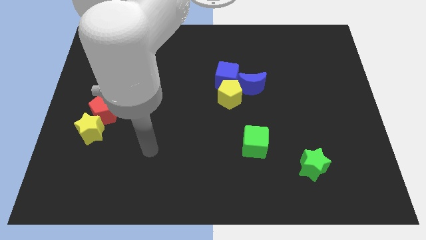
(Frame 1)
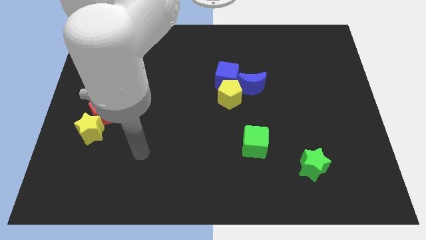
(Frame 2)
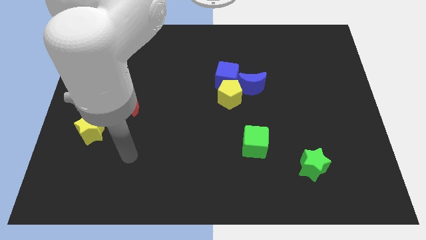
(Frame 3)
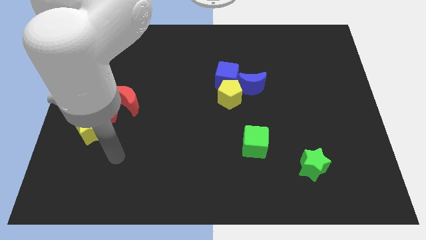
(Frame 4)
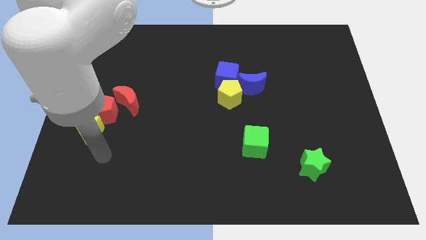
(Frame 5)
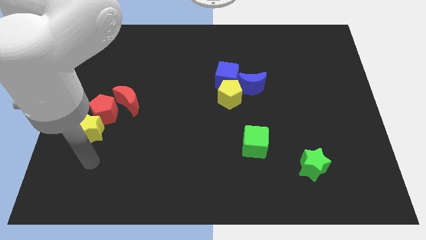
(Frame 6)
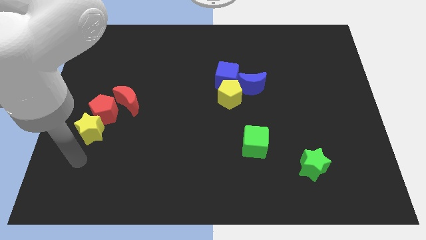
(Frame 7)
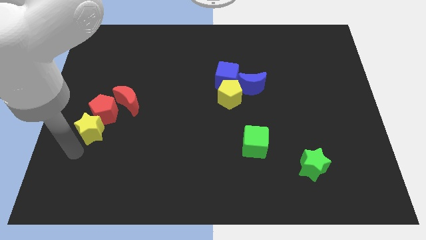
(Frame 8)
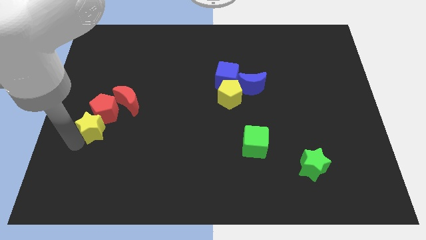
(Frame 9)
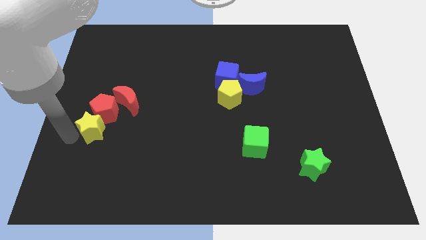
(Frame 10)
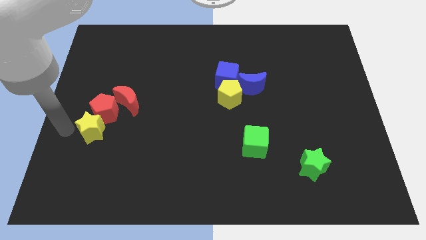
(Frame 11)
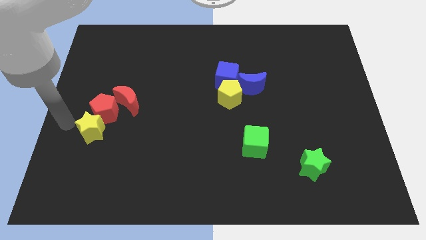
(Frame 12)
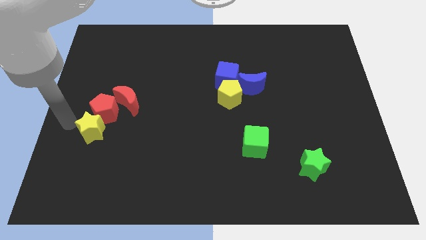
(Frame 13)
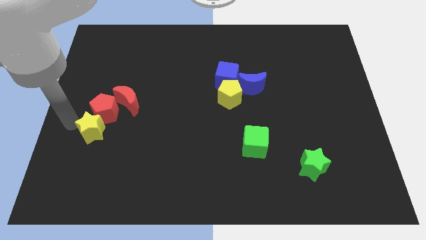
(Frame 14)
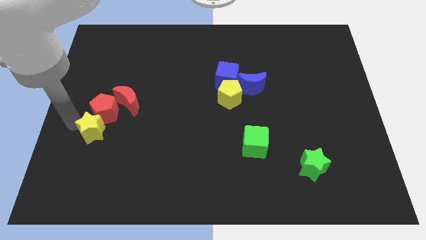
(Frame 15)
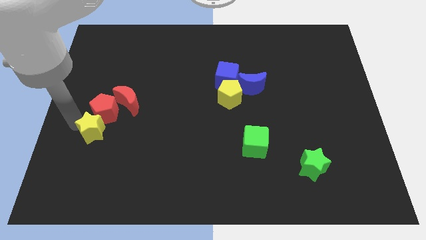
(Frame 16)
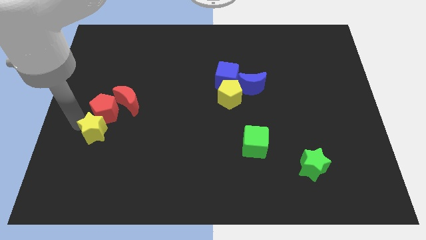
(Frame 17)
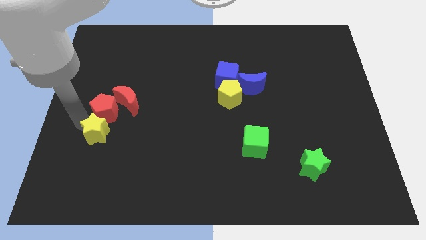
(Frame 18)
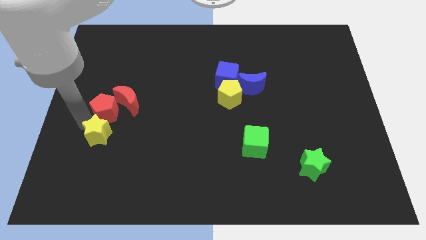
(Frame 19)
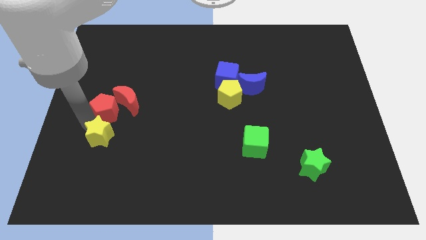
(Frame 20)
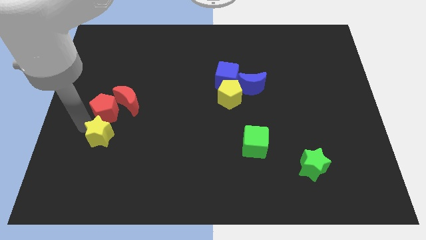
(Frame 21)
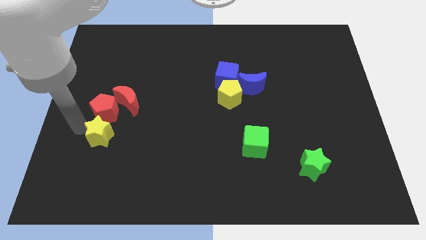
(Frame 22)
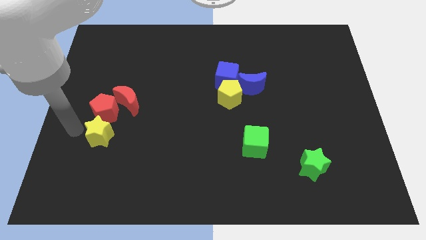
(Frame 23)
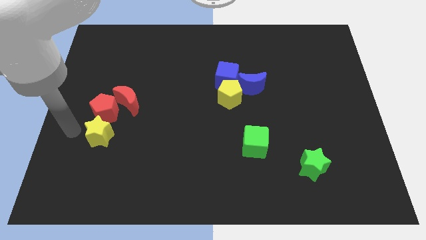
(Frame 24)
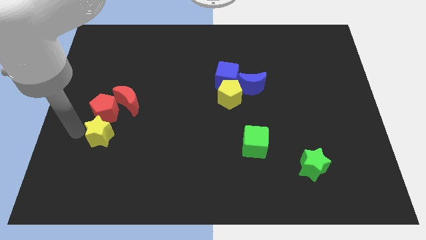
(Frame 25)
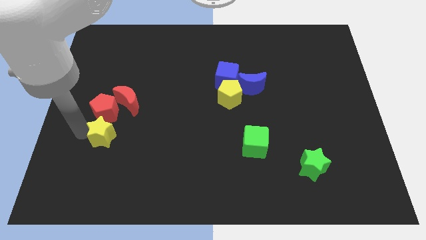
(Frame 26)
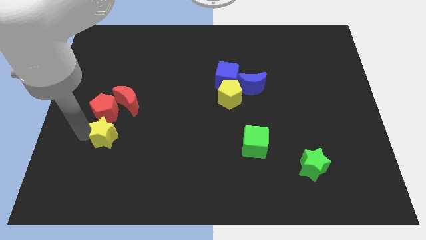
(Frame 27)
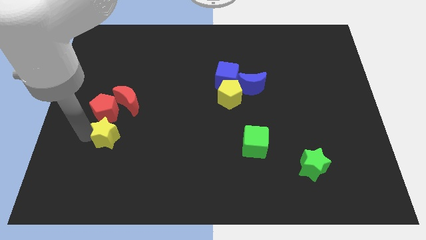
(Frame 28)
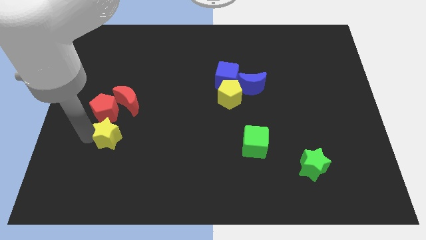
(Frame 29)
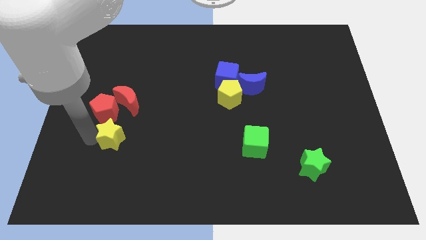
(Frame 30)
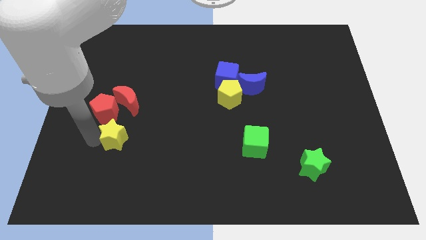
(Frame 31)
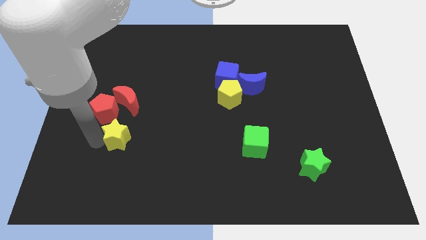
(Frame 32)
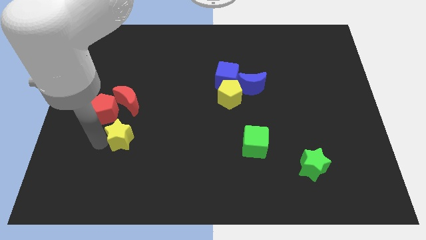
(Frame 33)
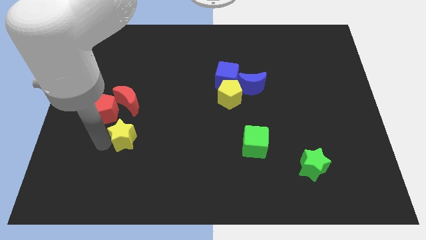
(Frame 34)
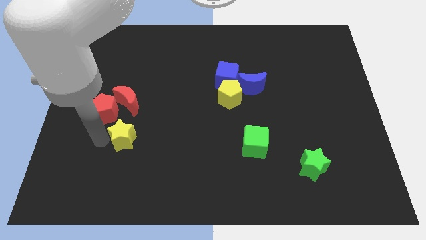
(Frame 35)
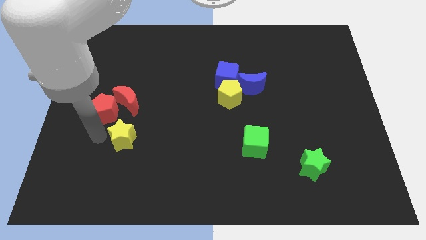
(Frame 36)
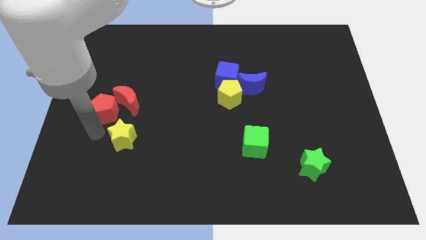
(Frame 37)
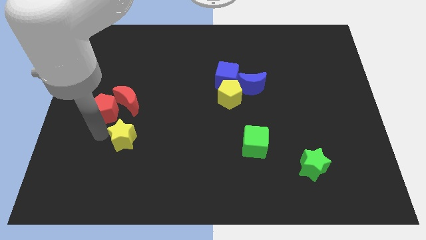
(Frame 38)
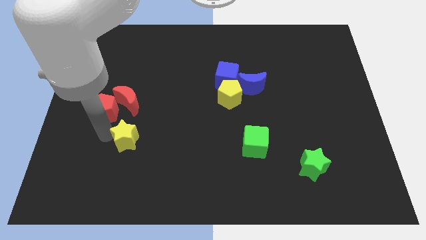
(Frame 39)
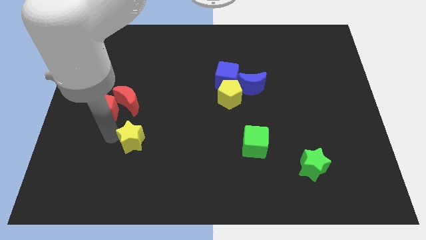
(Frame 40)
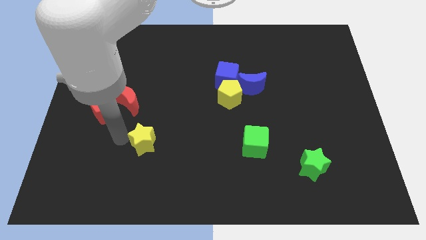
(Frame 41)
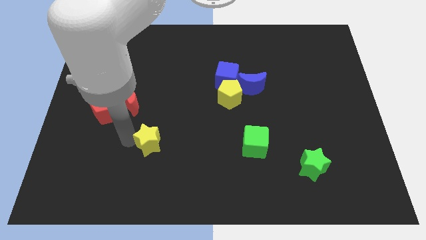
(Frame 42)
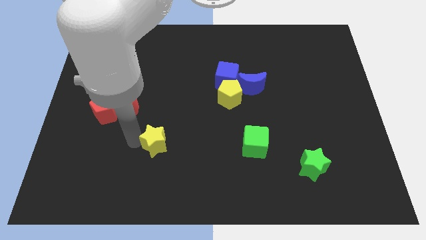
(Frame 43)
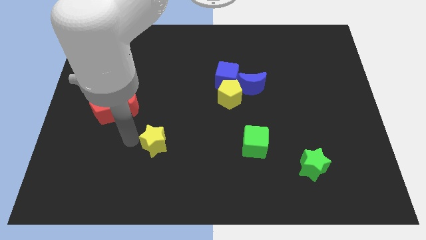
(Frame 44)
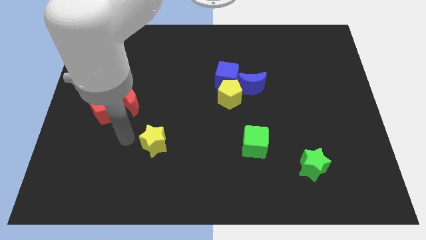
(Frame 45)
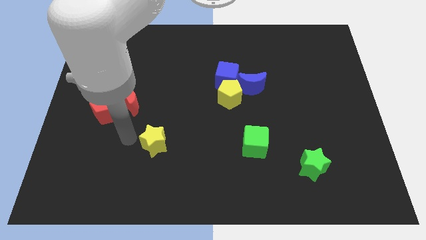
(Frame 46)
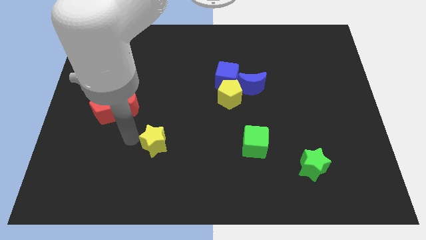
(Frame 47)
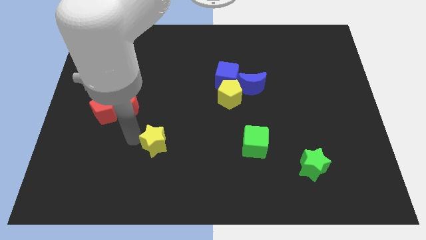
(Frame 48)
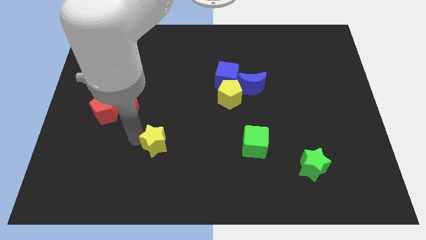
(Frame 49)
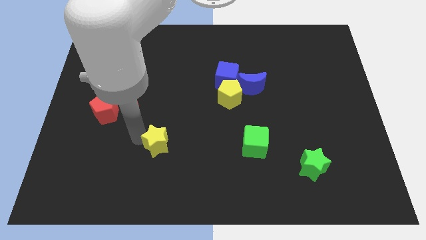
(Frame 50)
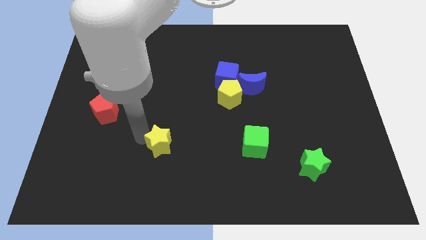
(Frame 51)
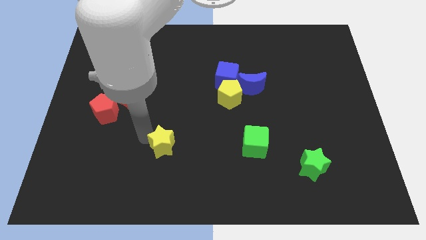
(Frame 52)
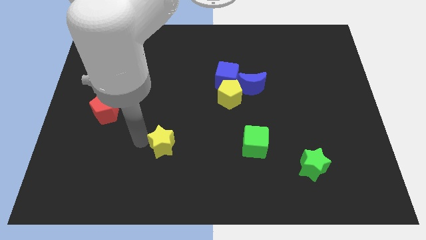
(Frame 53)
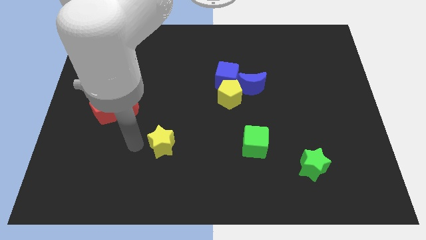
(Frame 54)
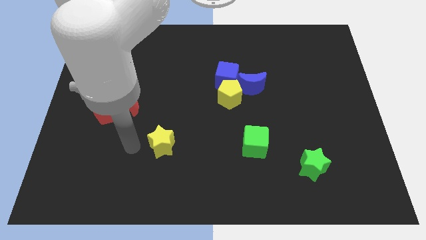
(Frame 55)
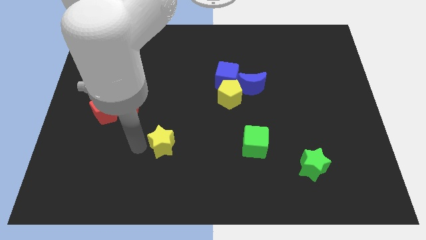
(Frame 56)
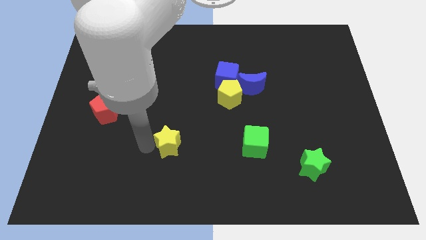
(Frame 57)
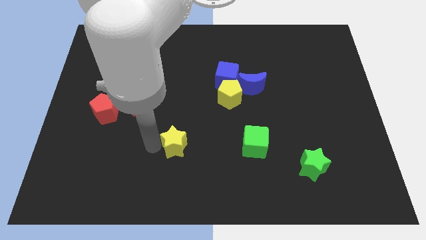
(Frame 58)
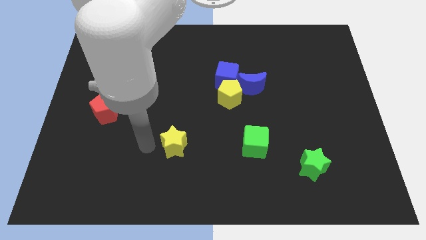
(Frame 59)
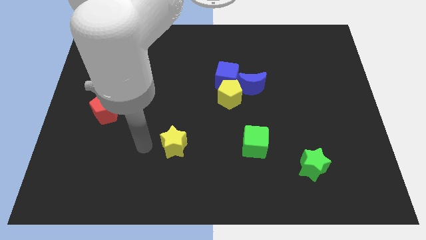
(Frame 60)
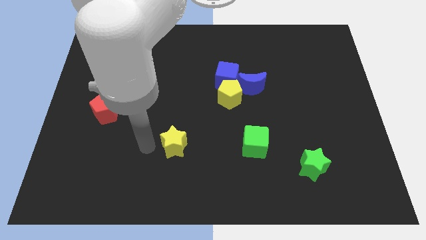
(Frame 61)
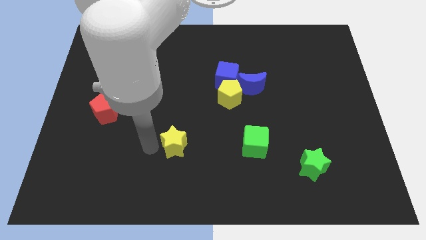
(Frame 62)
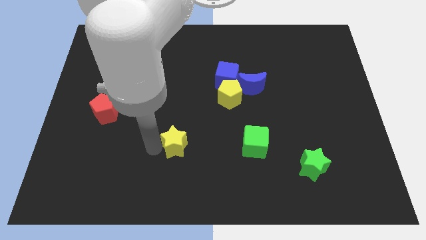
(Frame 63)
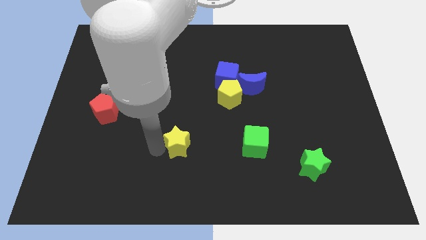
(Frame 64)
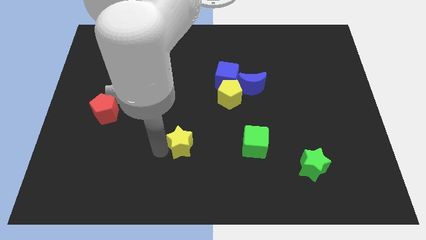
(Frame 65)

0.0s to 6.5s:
move the yellow star left of the green cube
